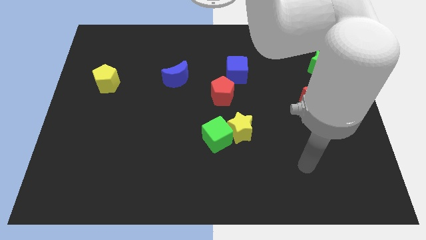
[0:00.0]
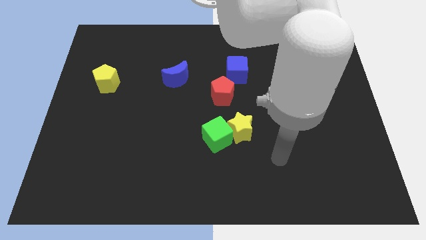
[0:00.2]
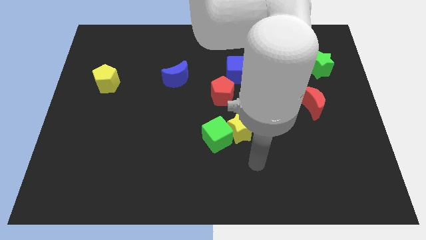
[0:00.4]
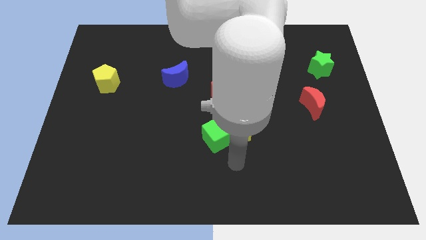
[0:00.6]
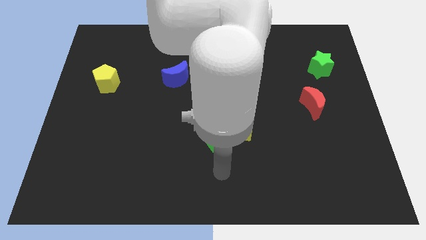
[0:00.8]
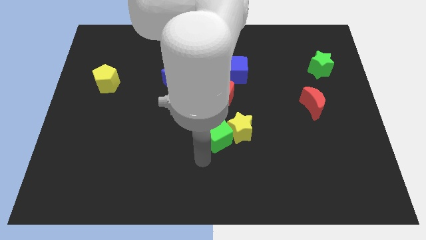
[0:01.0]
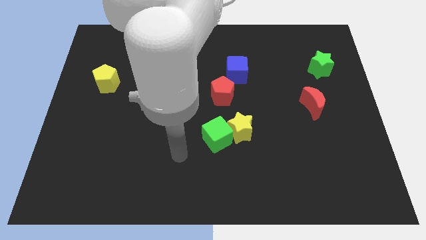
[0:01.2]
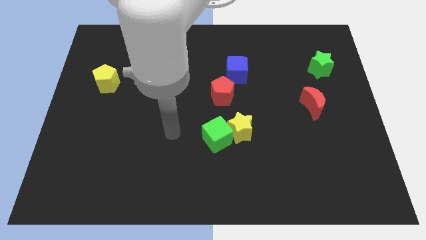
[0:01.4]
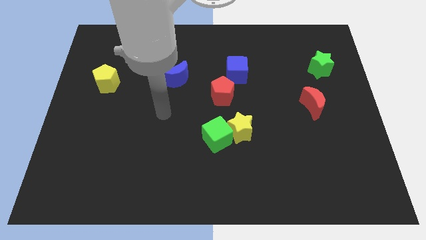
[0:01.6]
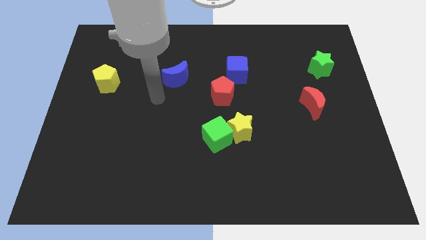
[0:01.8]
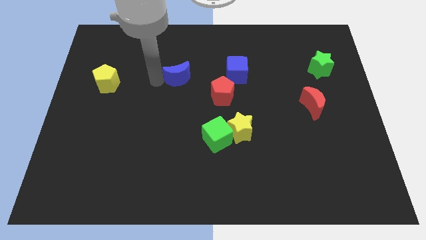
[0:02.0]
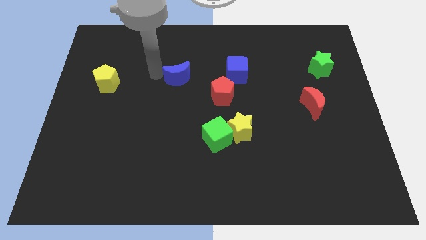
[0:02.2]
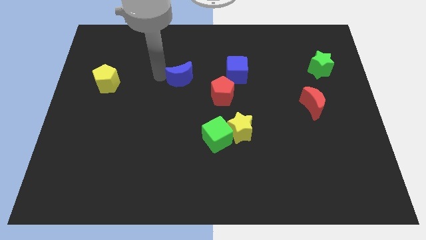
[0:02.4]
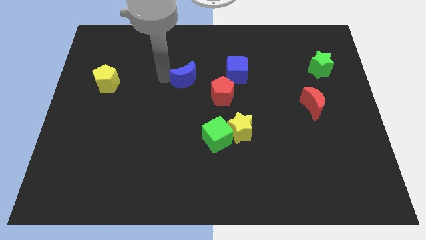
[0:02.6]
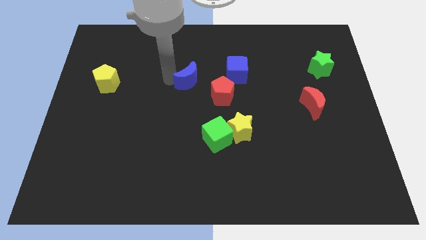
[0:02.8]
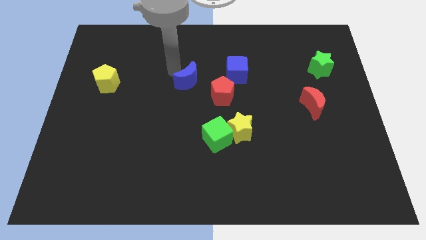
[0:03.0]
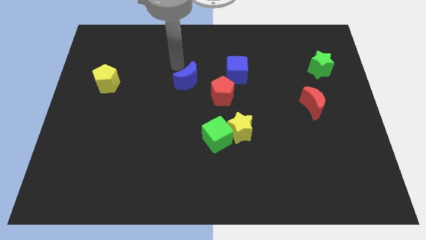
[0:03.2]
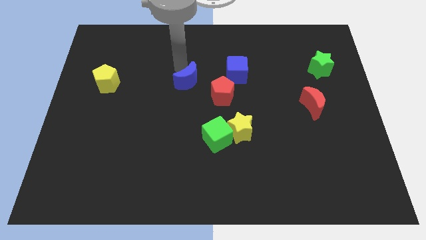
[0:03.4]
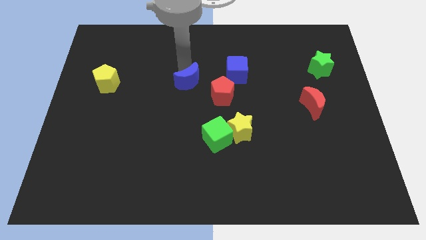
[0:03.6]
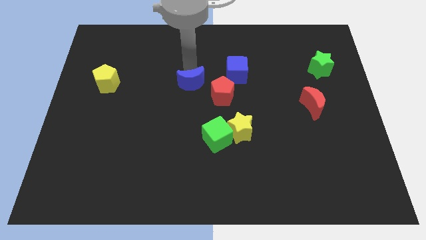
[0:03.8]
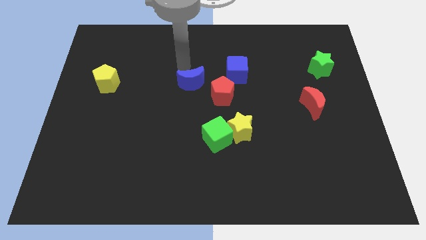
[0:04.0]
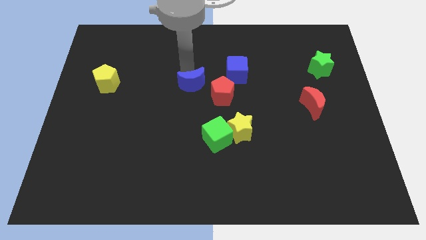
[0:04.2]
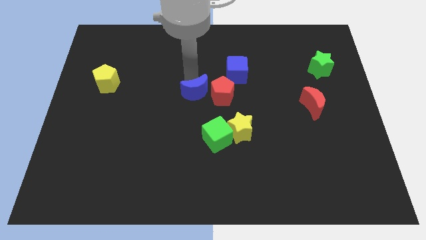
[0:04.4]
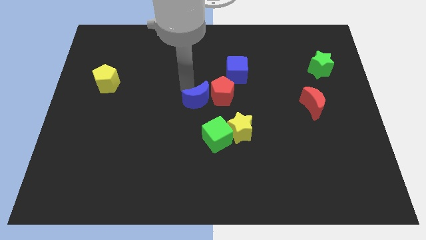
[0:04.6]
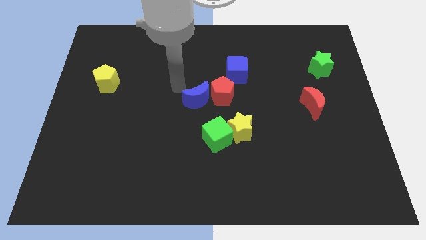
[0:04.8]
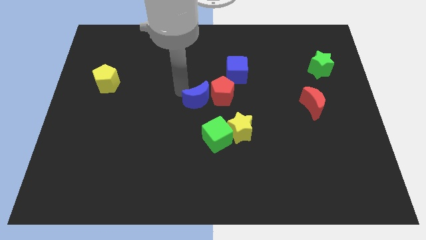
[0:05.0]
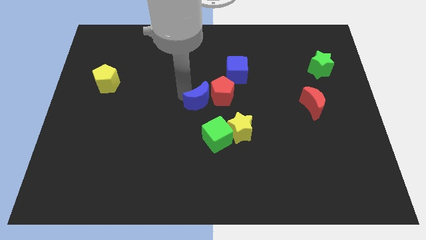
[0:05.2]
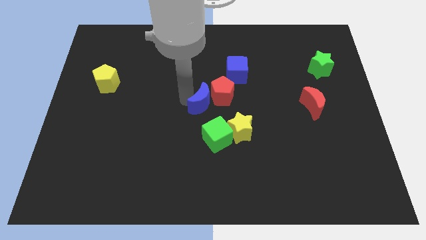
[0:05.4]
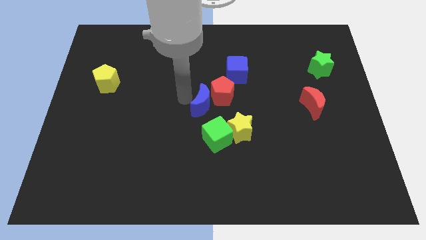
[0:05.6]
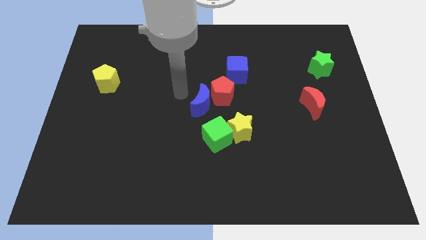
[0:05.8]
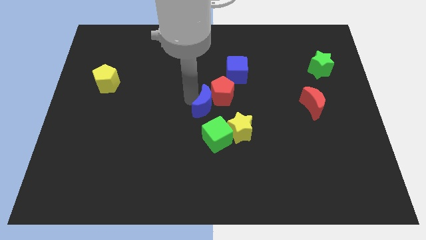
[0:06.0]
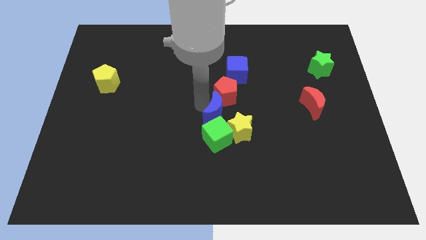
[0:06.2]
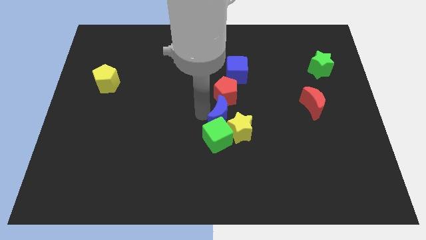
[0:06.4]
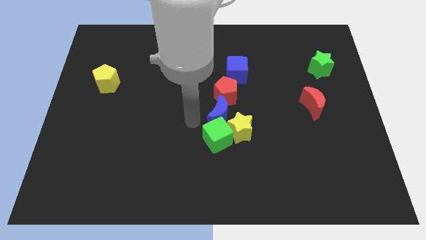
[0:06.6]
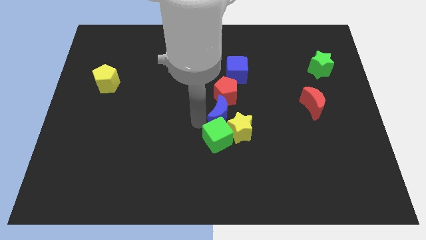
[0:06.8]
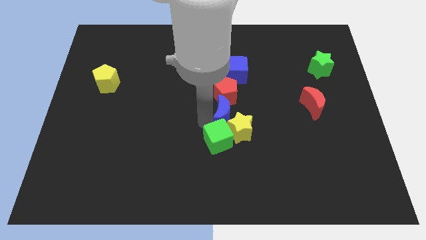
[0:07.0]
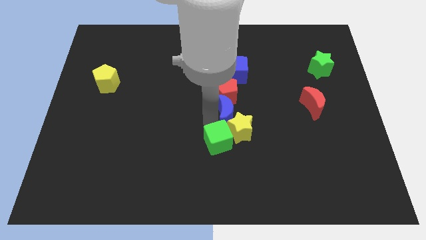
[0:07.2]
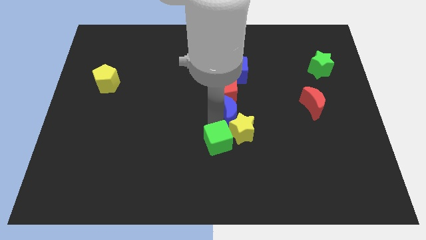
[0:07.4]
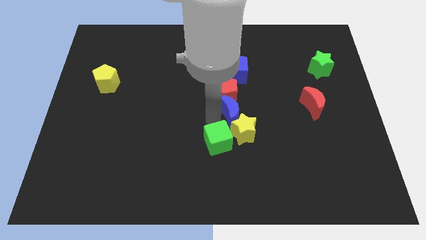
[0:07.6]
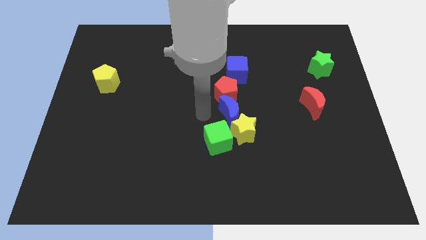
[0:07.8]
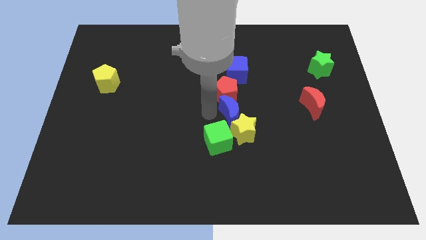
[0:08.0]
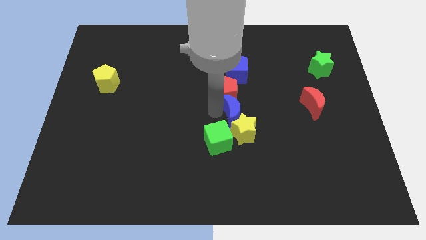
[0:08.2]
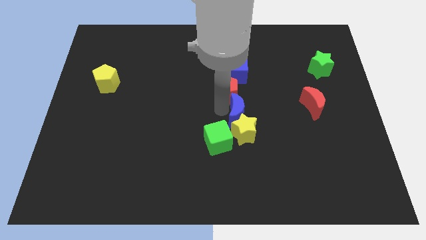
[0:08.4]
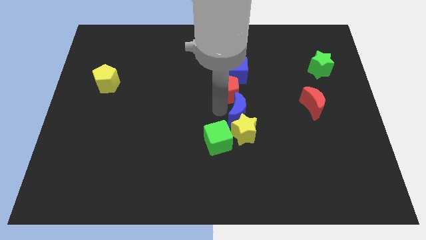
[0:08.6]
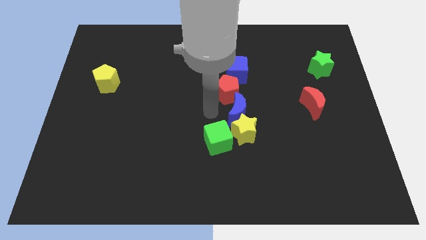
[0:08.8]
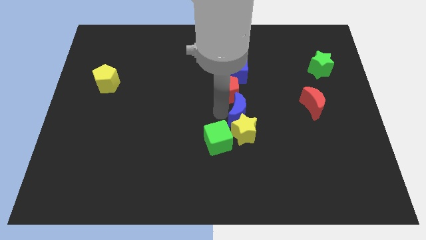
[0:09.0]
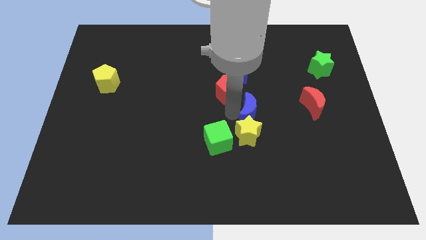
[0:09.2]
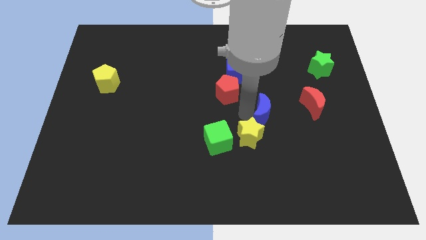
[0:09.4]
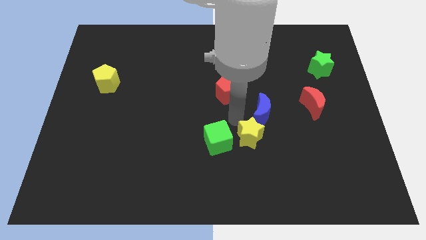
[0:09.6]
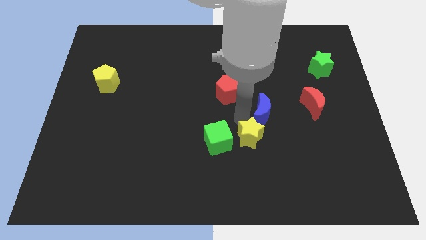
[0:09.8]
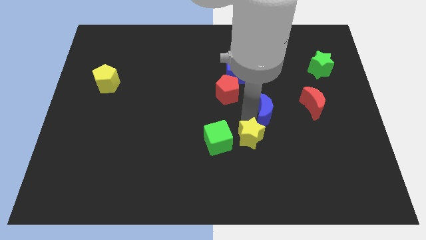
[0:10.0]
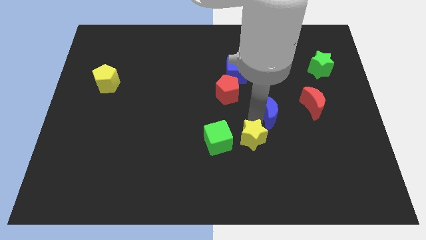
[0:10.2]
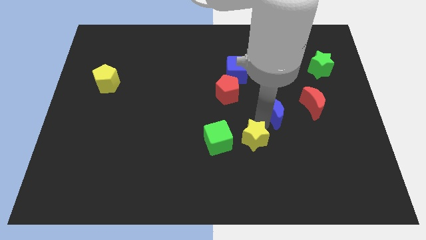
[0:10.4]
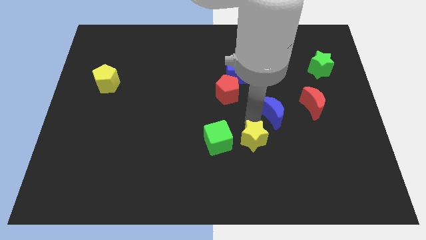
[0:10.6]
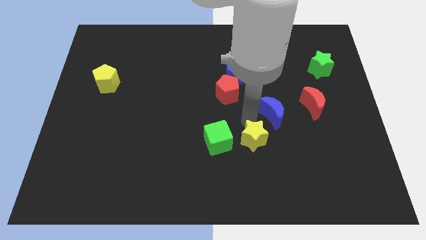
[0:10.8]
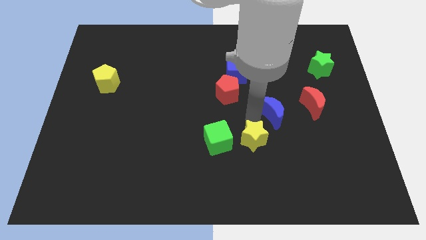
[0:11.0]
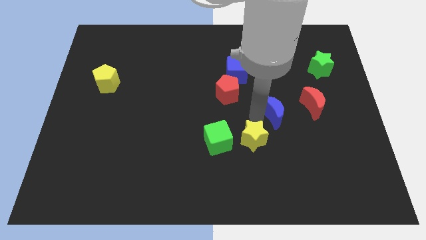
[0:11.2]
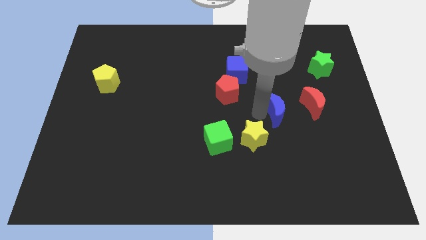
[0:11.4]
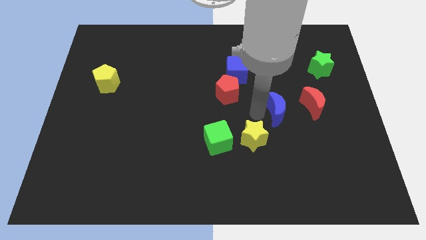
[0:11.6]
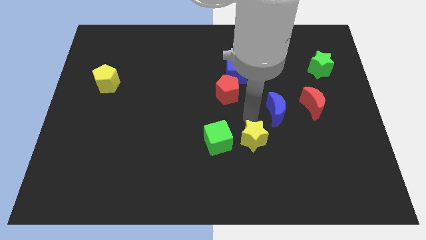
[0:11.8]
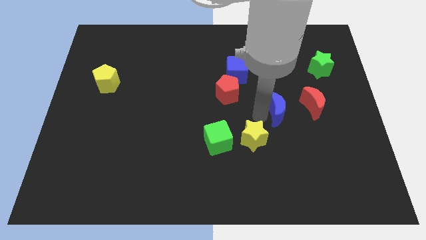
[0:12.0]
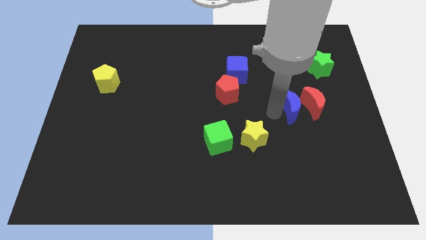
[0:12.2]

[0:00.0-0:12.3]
push the blue moon close to the red moon

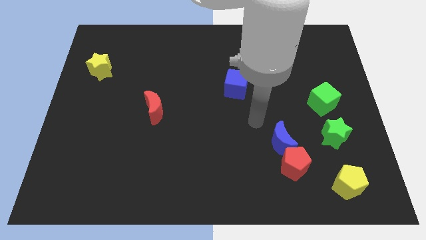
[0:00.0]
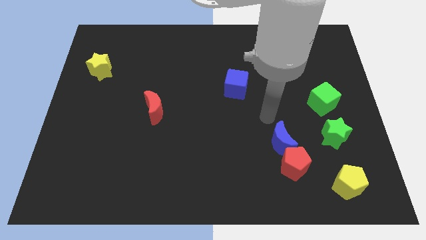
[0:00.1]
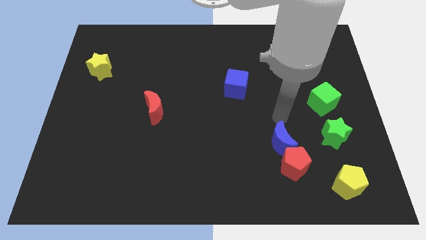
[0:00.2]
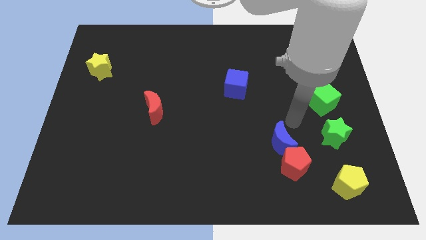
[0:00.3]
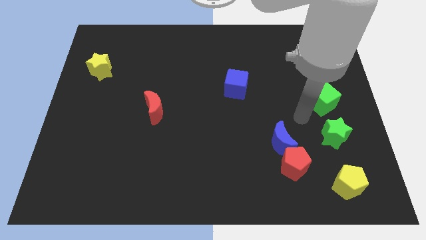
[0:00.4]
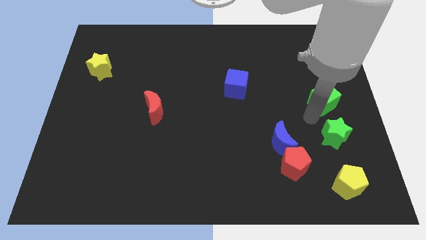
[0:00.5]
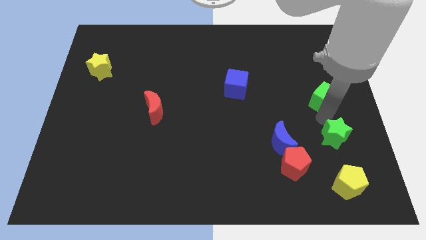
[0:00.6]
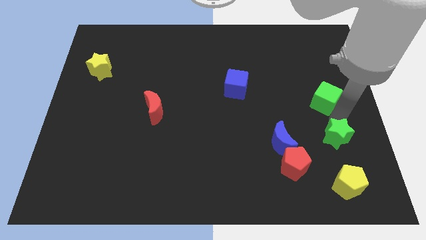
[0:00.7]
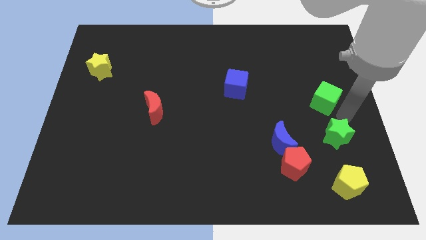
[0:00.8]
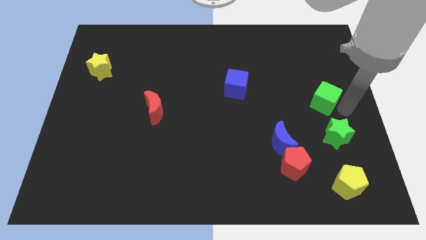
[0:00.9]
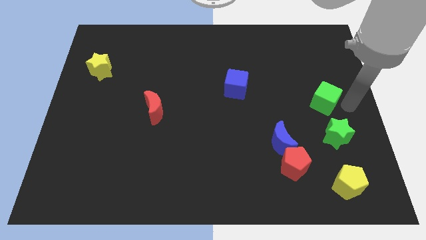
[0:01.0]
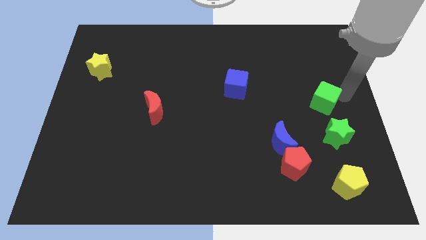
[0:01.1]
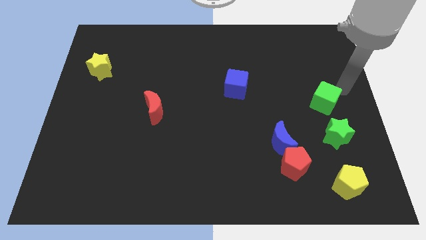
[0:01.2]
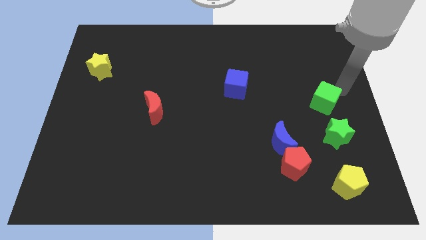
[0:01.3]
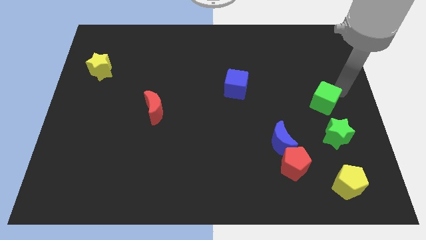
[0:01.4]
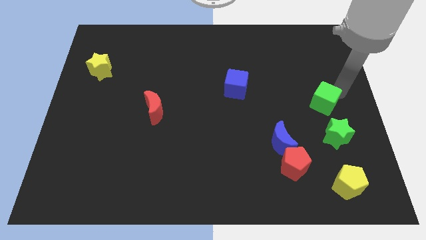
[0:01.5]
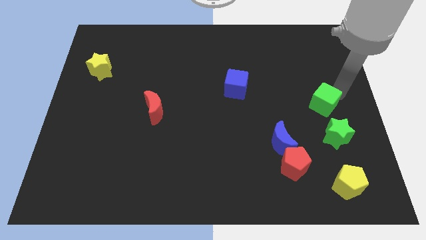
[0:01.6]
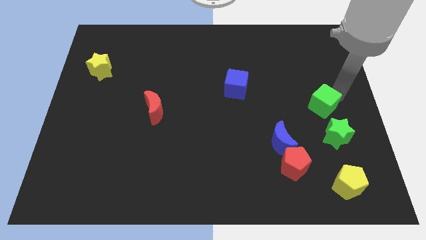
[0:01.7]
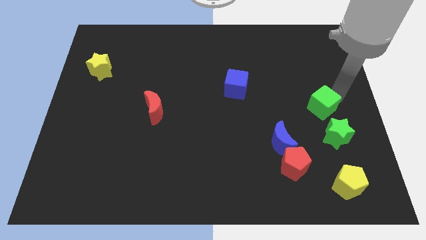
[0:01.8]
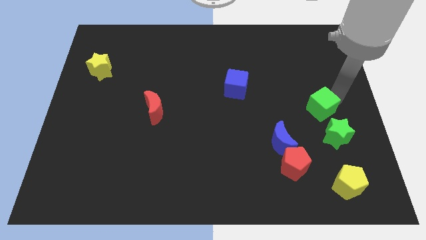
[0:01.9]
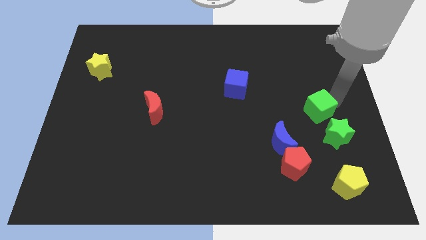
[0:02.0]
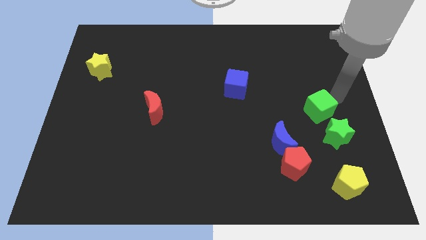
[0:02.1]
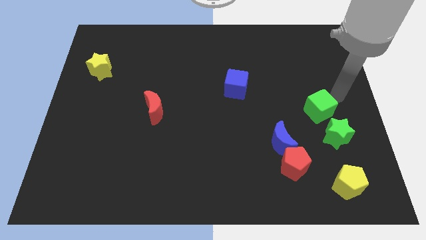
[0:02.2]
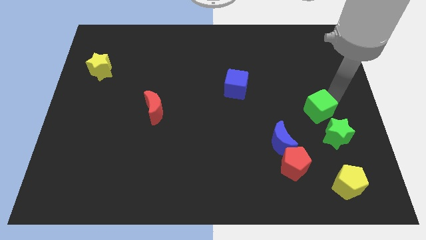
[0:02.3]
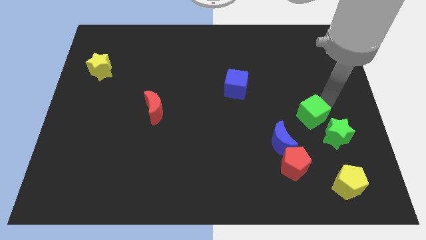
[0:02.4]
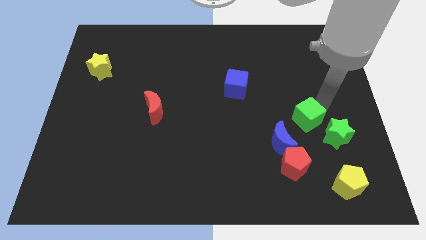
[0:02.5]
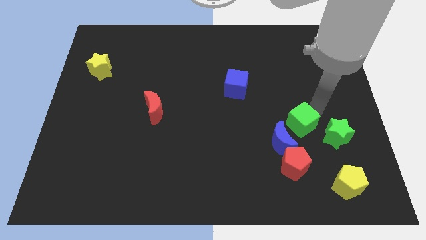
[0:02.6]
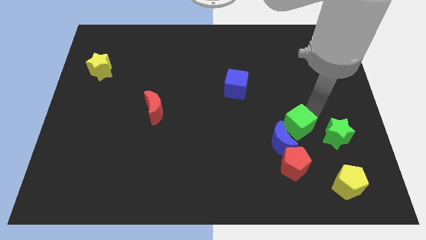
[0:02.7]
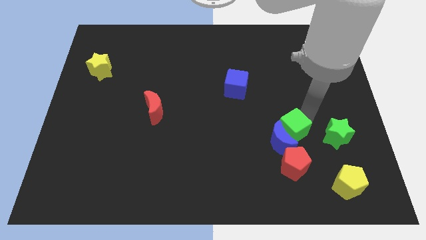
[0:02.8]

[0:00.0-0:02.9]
move the green cube towards the blue moon
